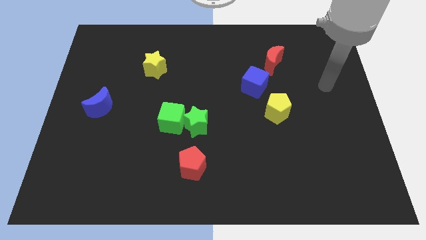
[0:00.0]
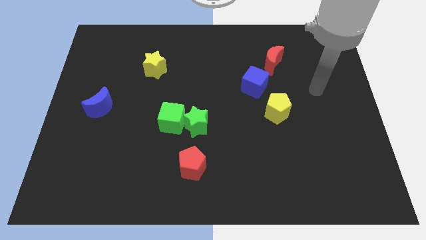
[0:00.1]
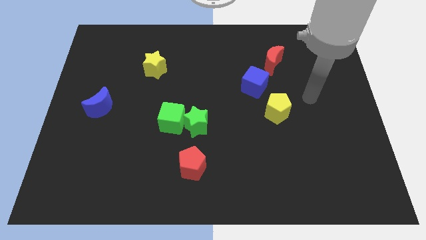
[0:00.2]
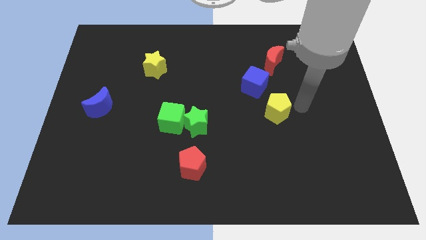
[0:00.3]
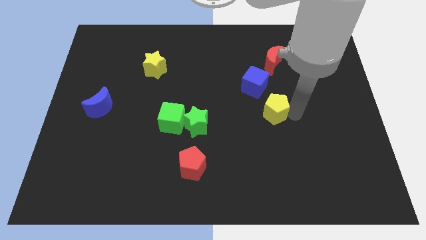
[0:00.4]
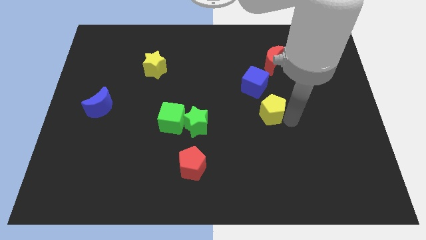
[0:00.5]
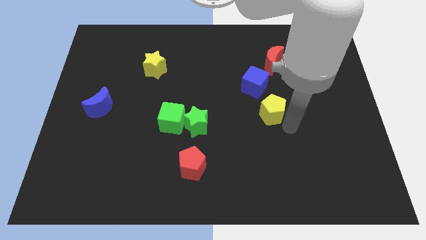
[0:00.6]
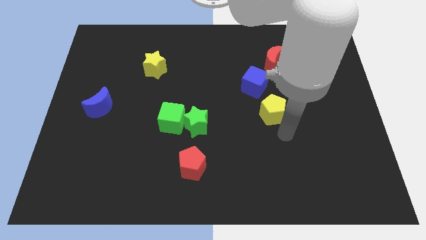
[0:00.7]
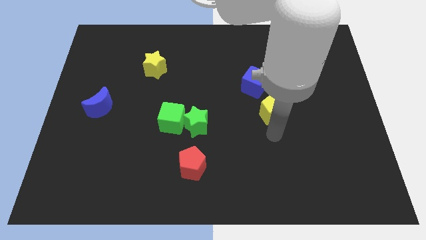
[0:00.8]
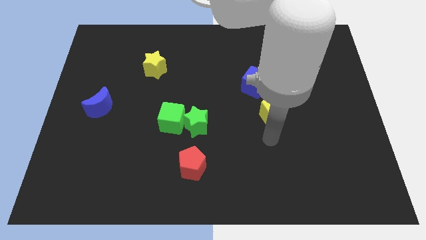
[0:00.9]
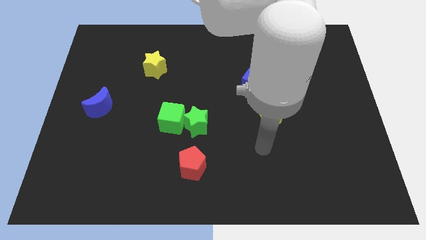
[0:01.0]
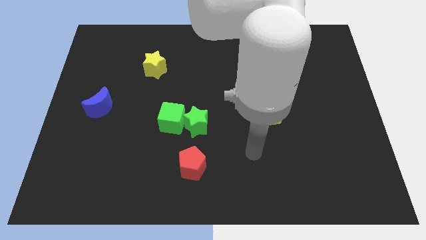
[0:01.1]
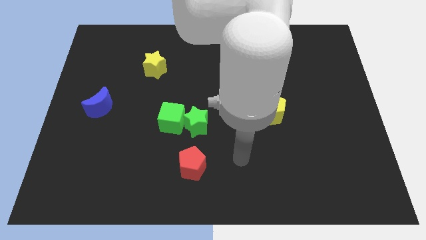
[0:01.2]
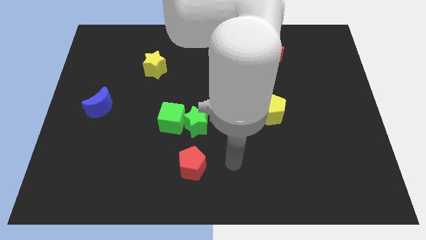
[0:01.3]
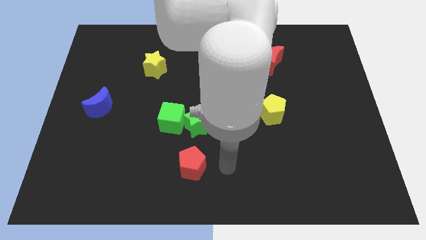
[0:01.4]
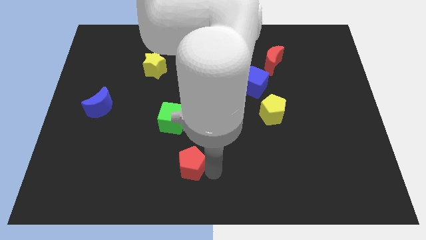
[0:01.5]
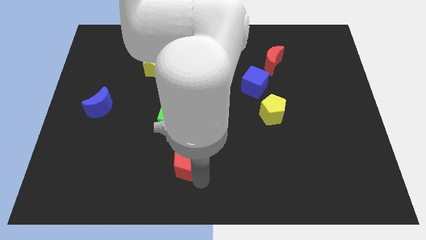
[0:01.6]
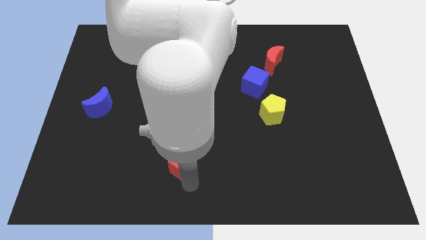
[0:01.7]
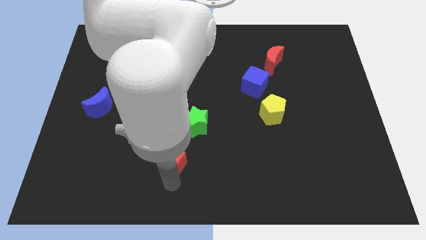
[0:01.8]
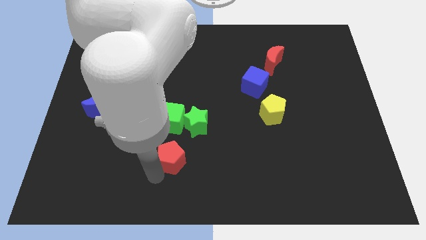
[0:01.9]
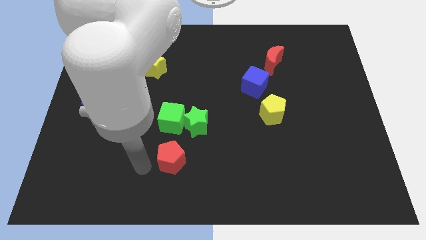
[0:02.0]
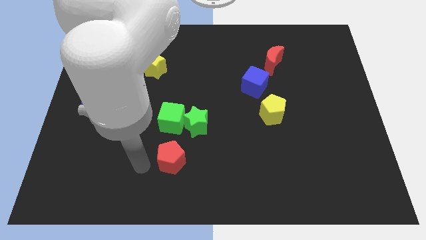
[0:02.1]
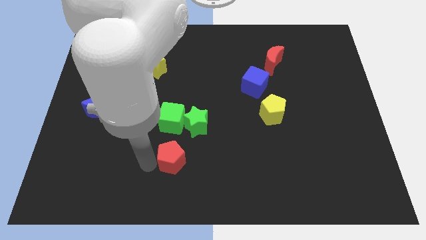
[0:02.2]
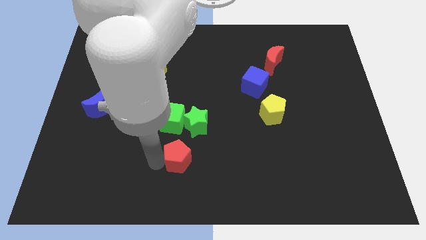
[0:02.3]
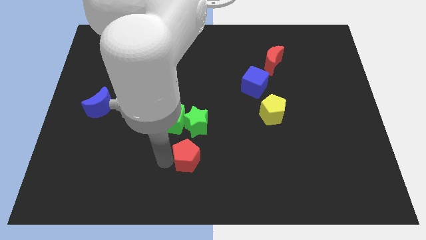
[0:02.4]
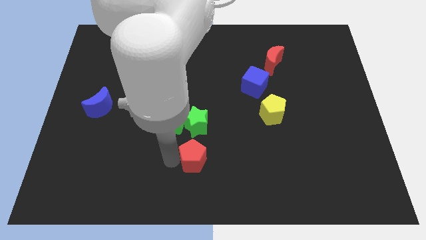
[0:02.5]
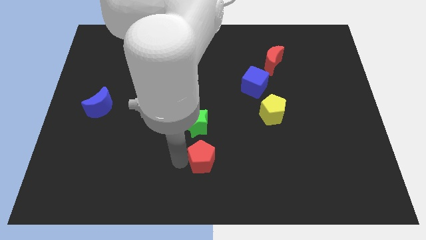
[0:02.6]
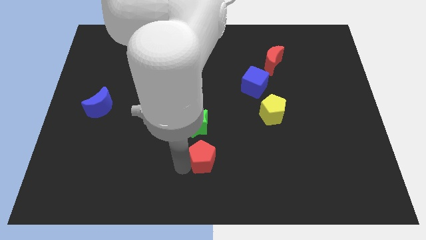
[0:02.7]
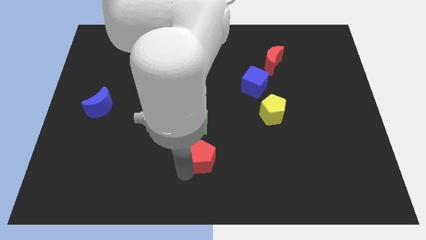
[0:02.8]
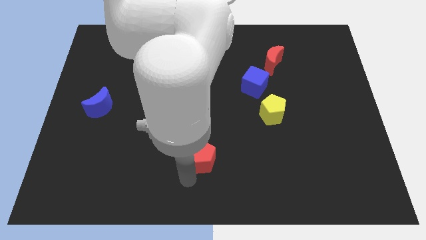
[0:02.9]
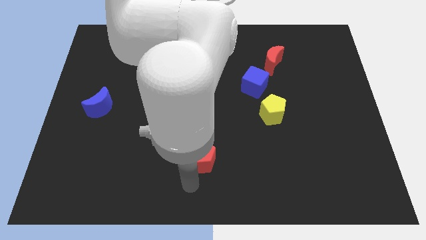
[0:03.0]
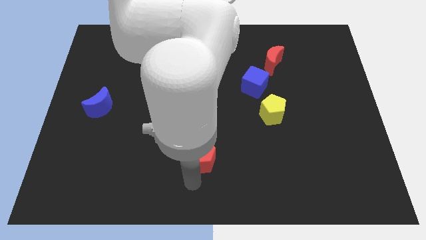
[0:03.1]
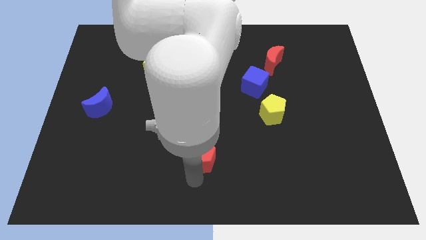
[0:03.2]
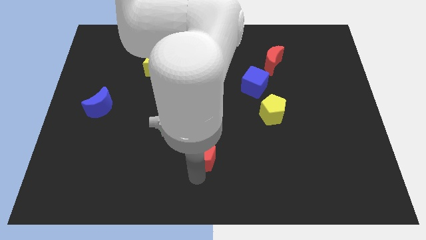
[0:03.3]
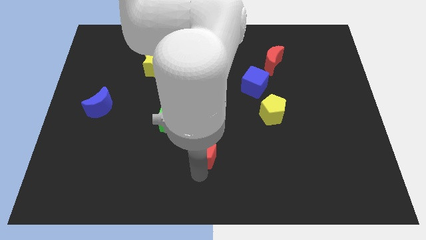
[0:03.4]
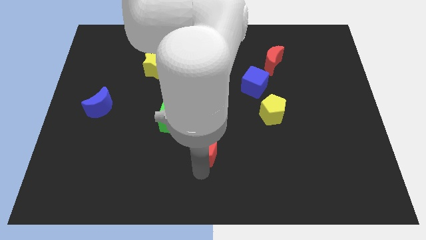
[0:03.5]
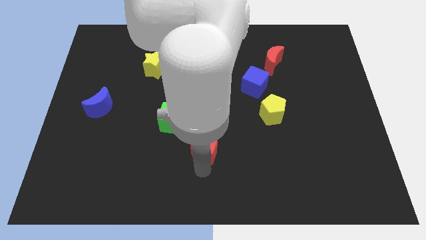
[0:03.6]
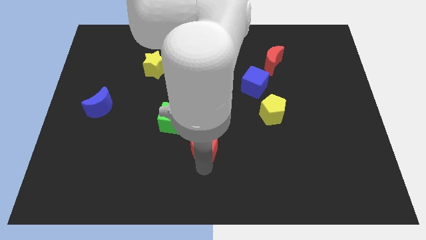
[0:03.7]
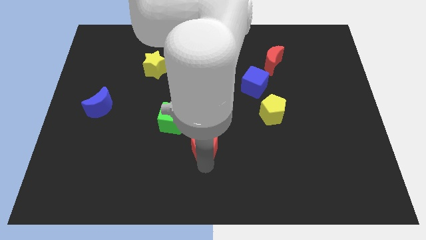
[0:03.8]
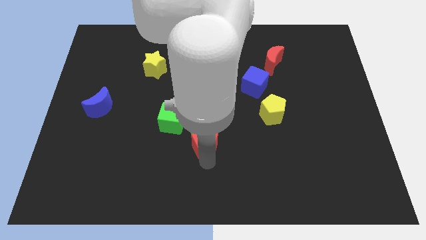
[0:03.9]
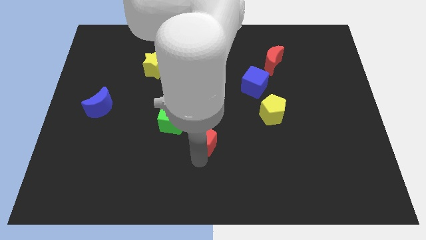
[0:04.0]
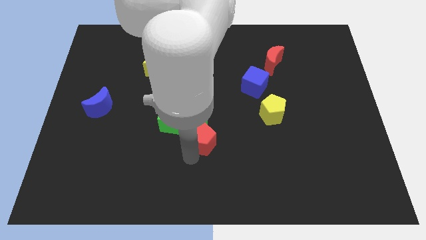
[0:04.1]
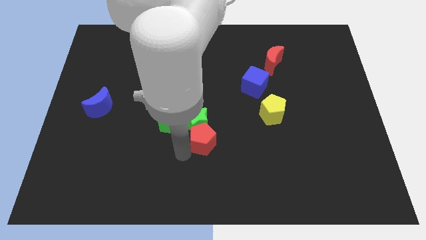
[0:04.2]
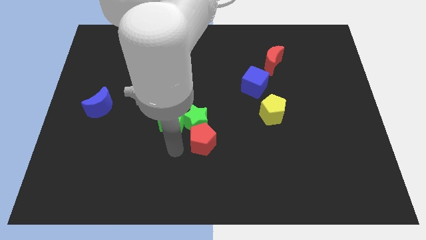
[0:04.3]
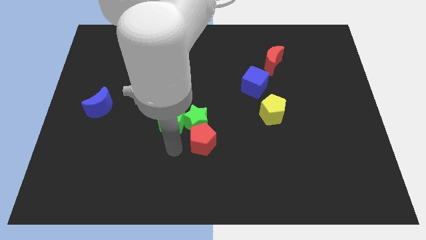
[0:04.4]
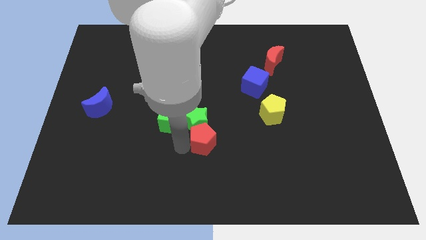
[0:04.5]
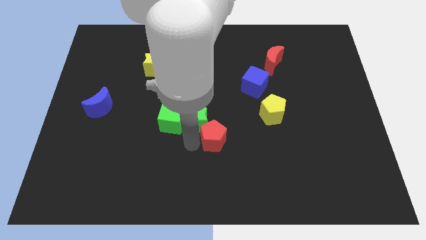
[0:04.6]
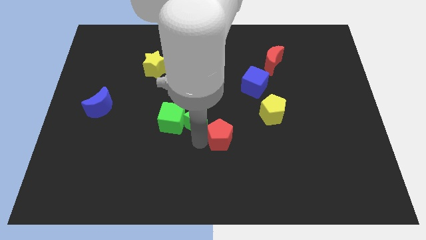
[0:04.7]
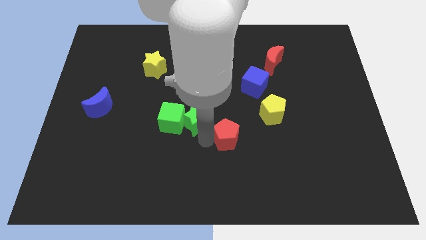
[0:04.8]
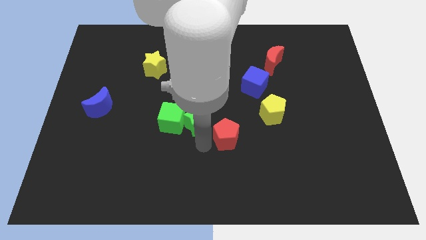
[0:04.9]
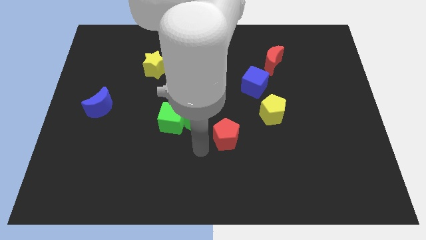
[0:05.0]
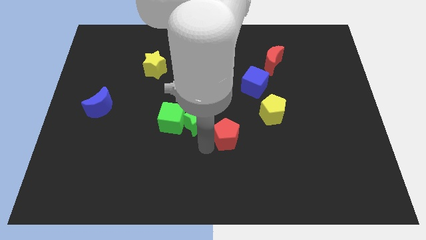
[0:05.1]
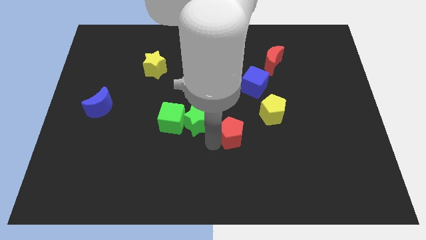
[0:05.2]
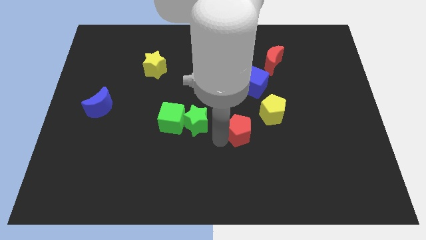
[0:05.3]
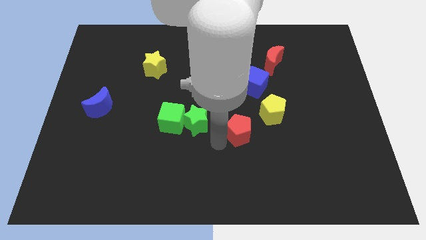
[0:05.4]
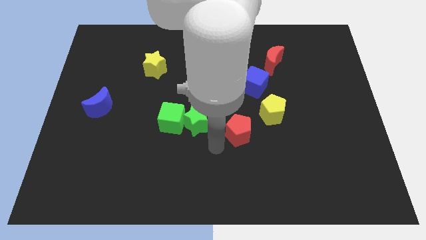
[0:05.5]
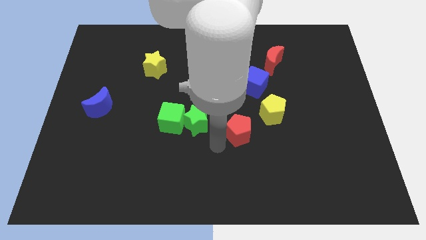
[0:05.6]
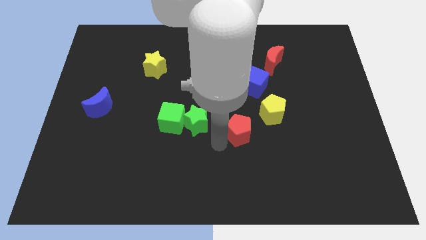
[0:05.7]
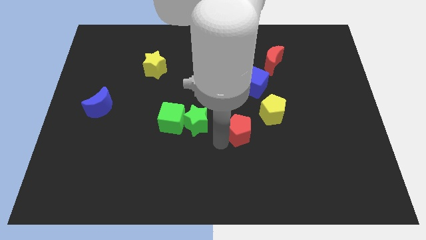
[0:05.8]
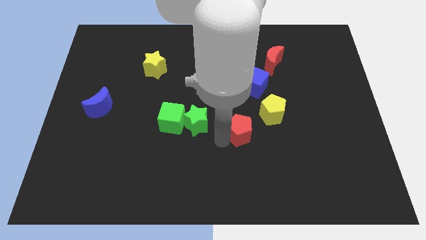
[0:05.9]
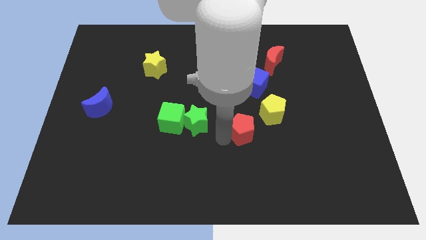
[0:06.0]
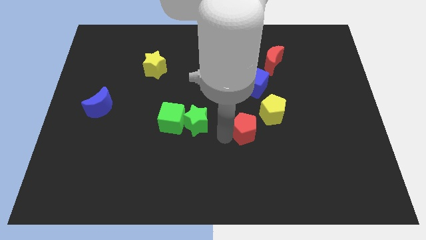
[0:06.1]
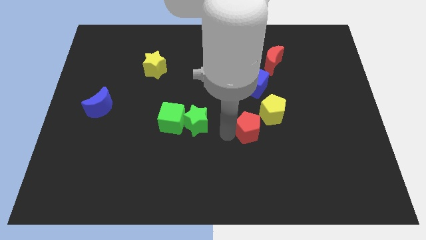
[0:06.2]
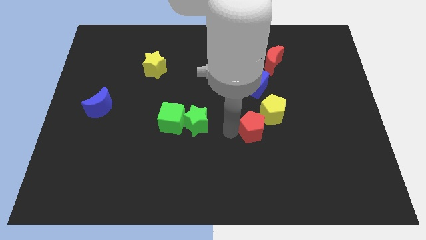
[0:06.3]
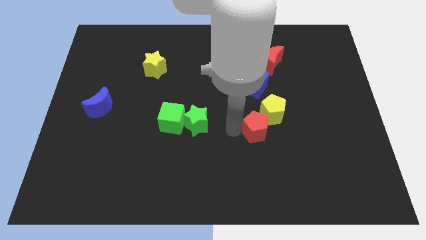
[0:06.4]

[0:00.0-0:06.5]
put the red pentagon to the yellow pentagon

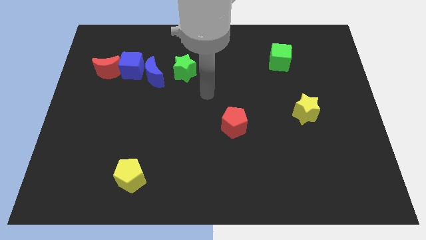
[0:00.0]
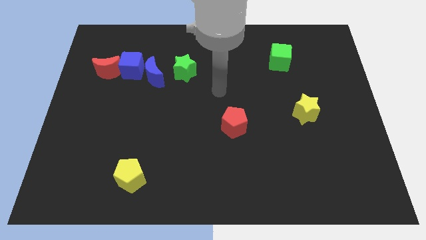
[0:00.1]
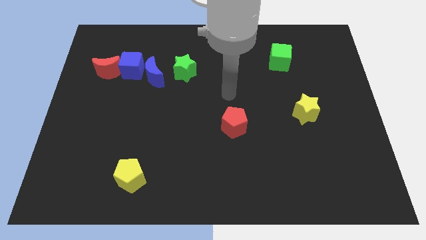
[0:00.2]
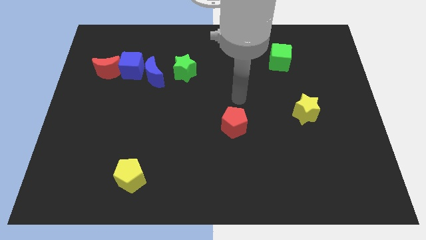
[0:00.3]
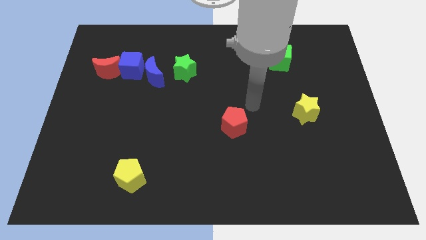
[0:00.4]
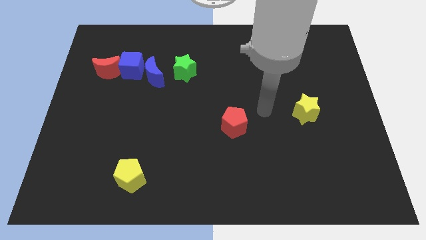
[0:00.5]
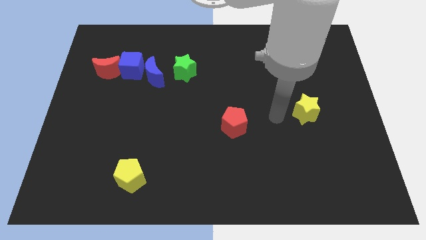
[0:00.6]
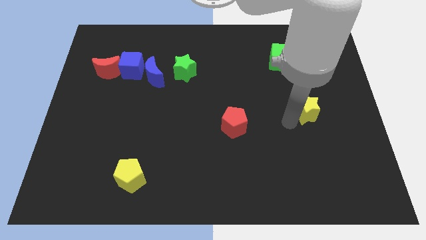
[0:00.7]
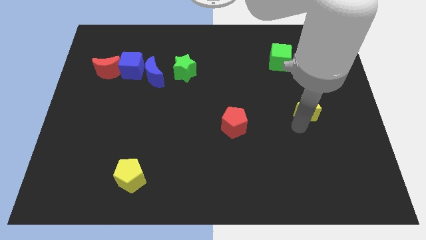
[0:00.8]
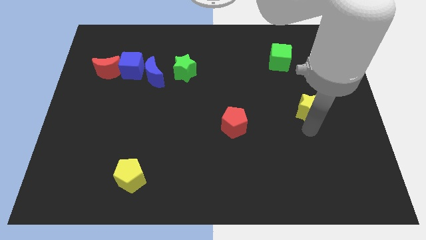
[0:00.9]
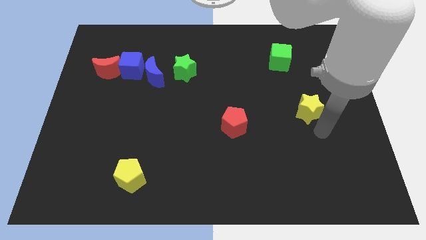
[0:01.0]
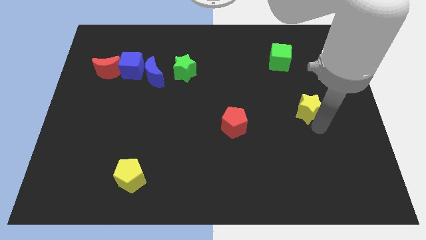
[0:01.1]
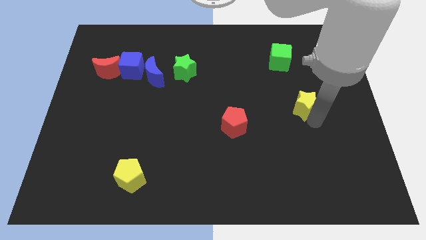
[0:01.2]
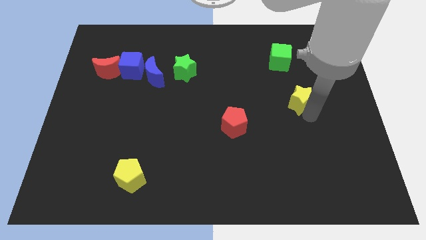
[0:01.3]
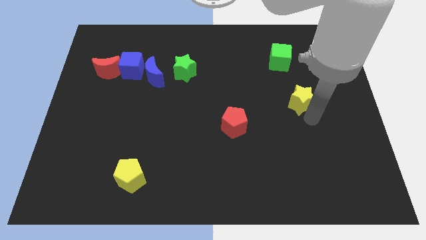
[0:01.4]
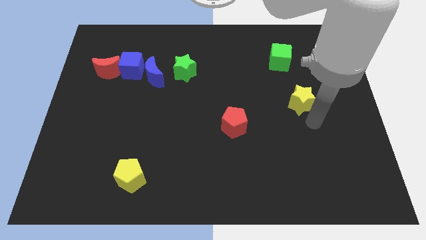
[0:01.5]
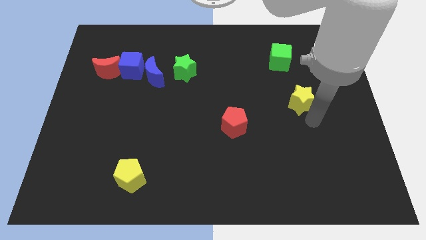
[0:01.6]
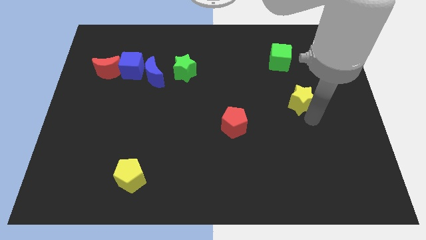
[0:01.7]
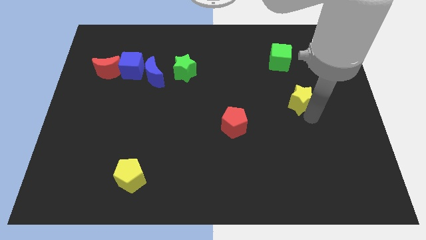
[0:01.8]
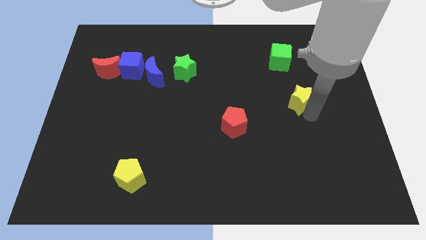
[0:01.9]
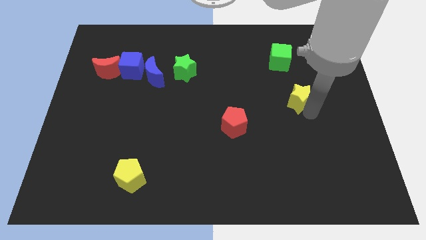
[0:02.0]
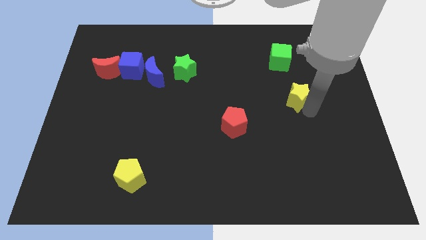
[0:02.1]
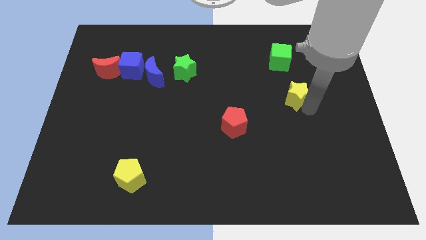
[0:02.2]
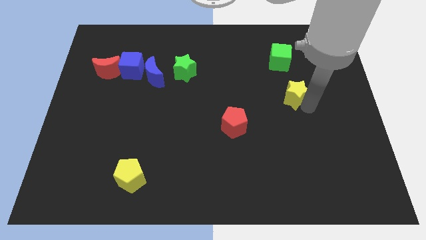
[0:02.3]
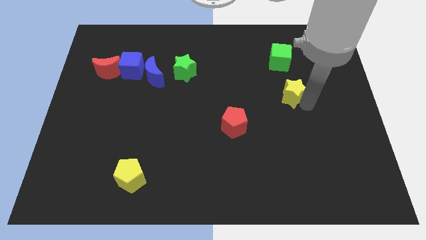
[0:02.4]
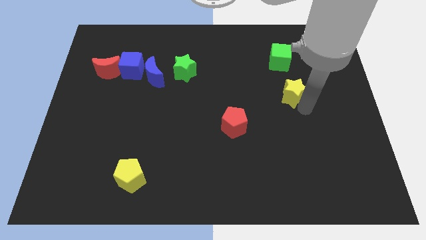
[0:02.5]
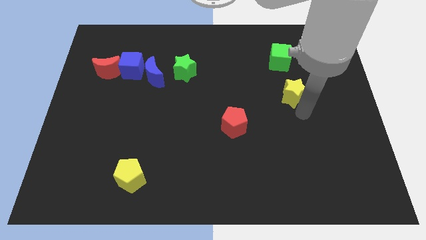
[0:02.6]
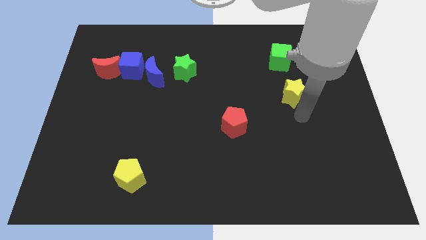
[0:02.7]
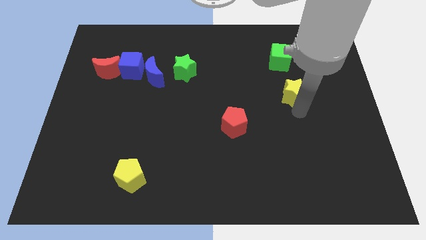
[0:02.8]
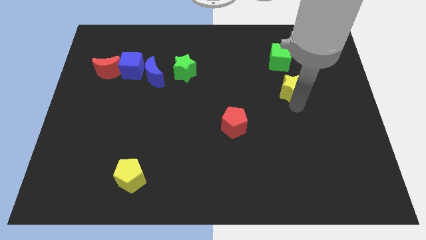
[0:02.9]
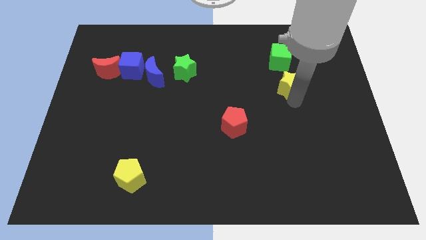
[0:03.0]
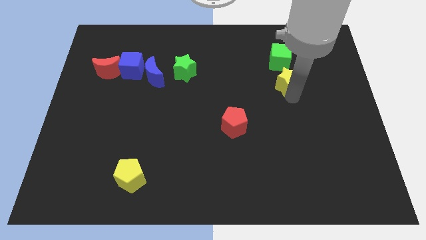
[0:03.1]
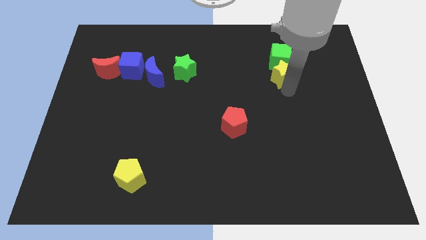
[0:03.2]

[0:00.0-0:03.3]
push the yellow star to the green cube
